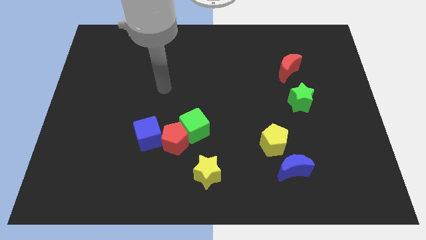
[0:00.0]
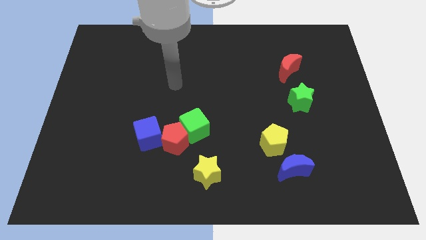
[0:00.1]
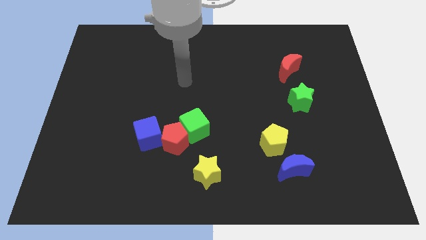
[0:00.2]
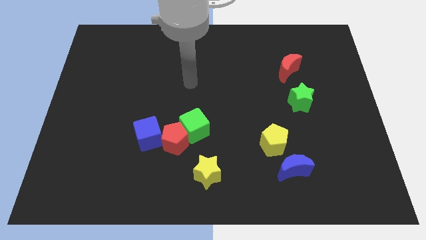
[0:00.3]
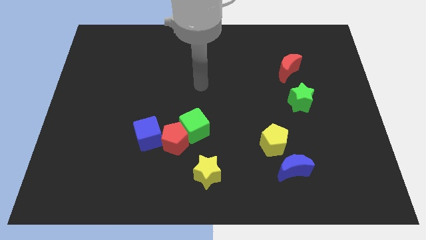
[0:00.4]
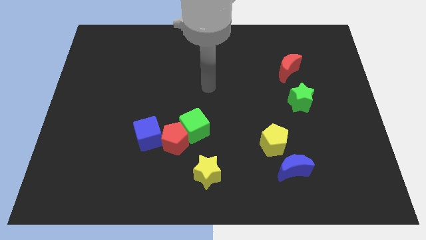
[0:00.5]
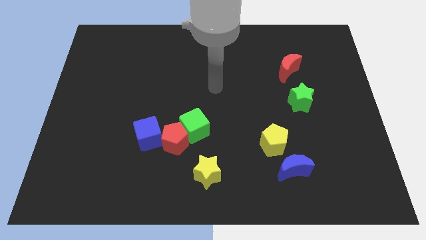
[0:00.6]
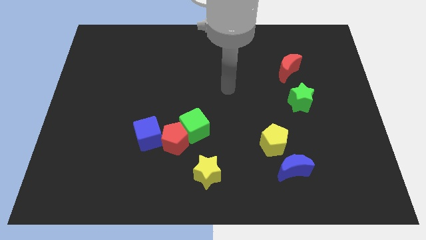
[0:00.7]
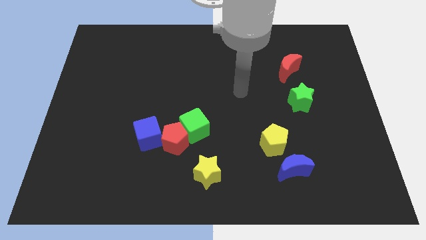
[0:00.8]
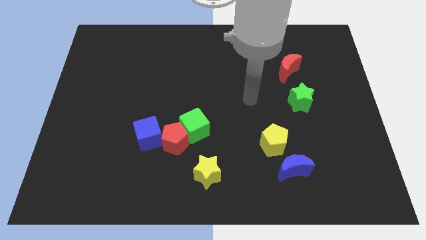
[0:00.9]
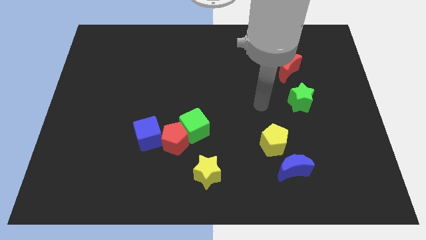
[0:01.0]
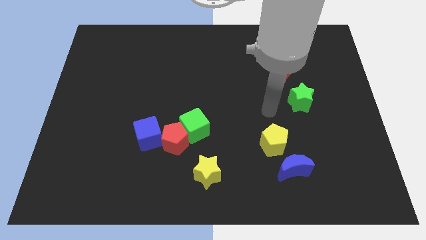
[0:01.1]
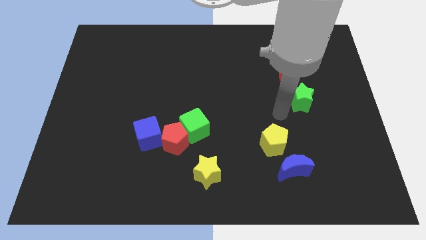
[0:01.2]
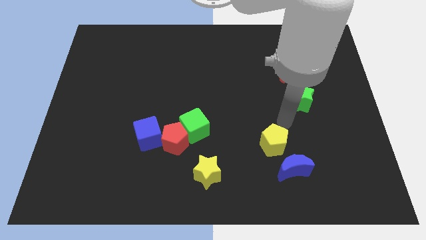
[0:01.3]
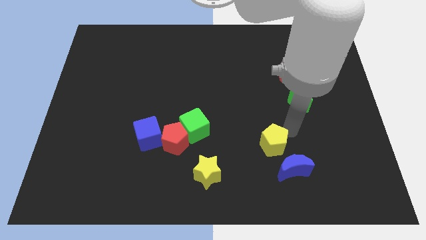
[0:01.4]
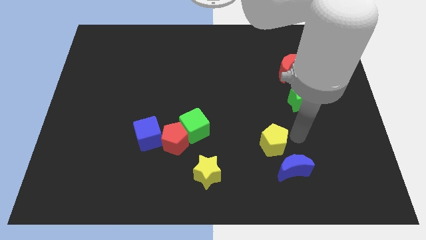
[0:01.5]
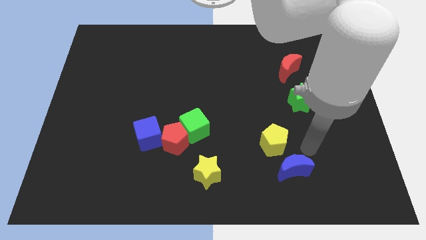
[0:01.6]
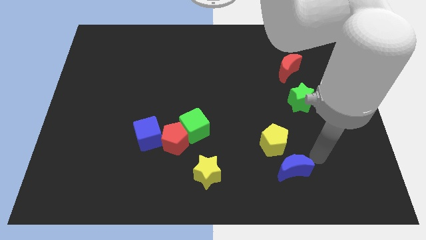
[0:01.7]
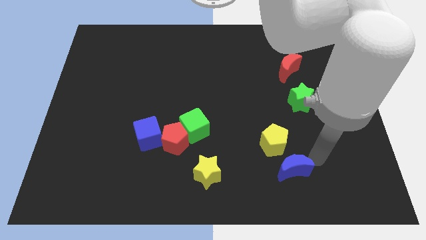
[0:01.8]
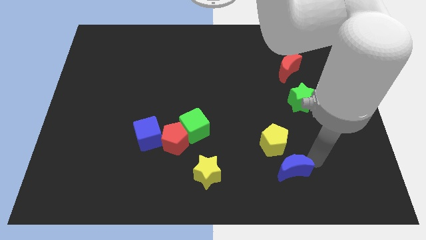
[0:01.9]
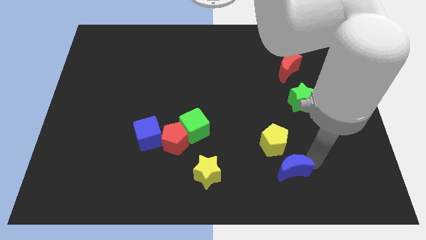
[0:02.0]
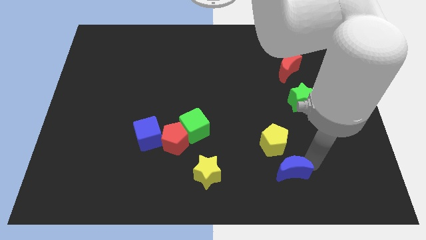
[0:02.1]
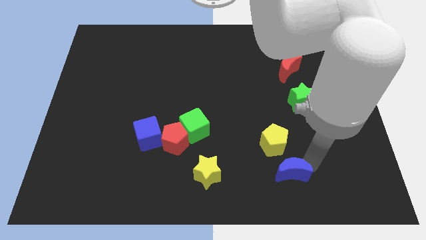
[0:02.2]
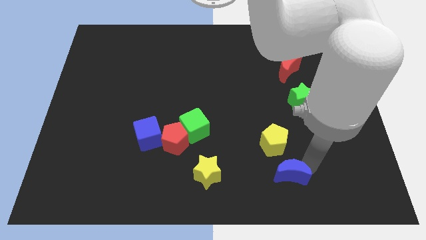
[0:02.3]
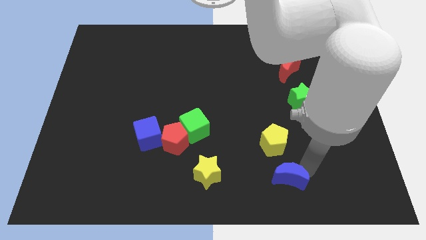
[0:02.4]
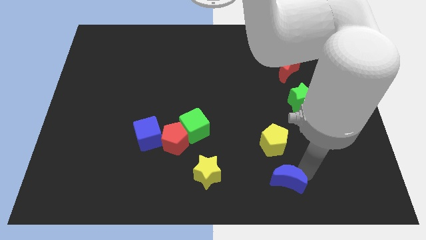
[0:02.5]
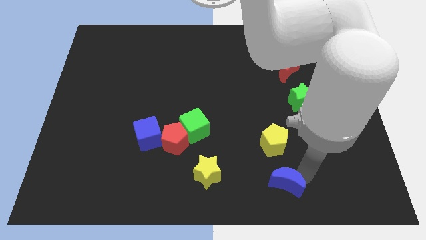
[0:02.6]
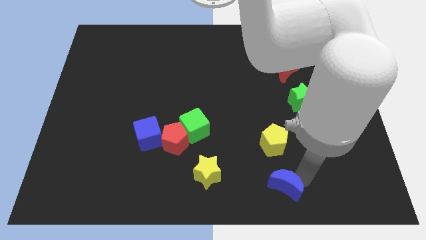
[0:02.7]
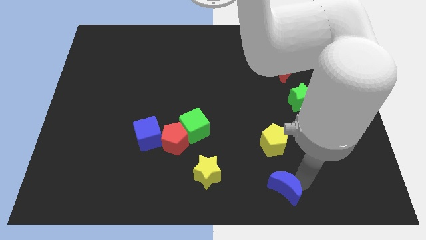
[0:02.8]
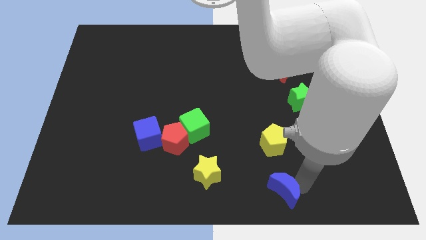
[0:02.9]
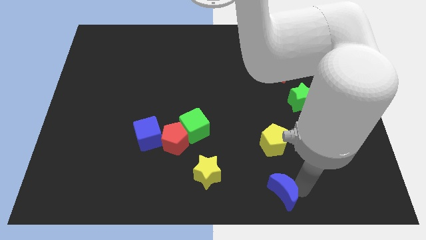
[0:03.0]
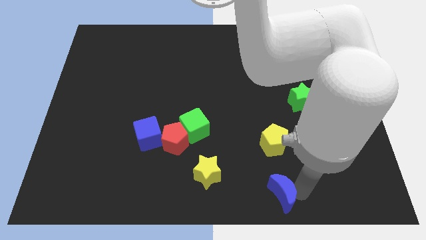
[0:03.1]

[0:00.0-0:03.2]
push the blue moon to the bottom

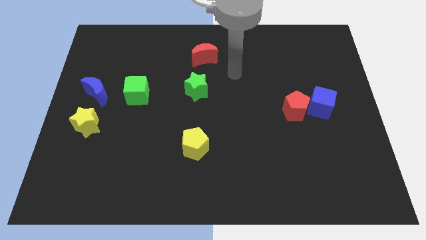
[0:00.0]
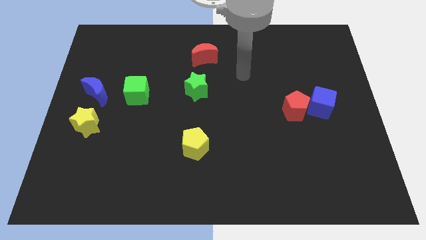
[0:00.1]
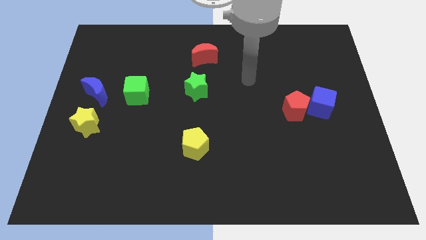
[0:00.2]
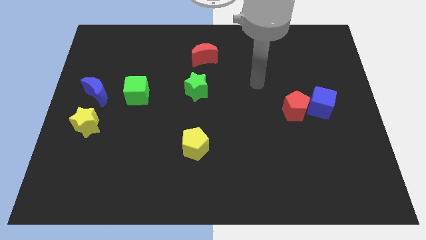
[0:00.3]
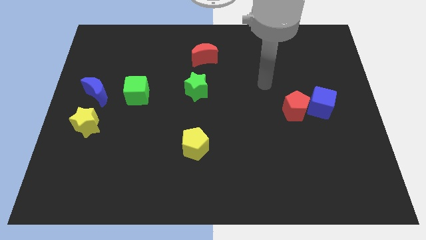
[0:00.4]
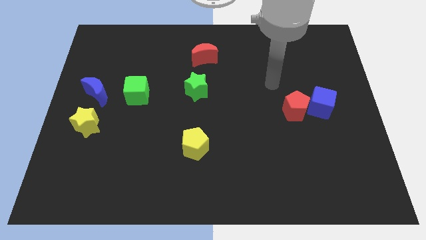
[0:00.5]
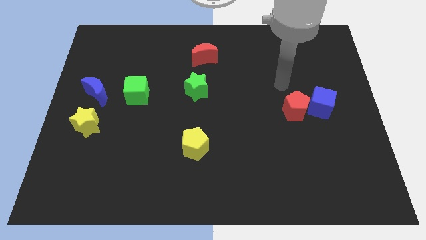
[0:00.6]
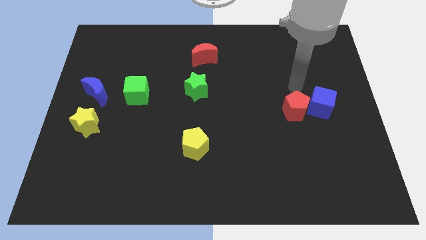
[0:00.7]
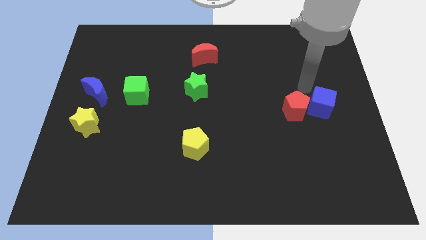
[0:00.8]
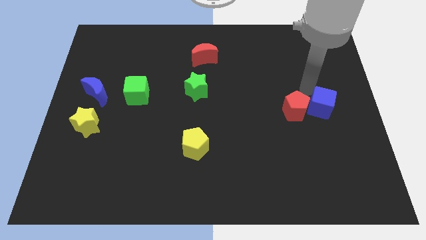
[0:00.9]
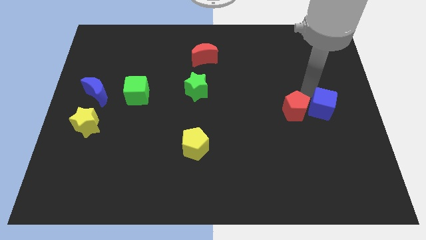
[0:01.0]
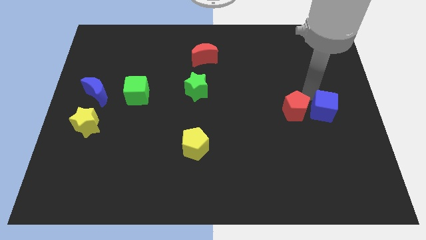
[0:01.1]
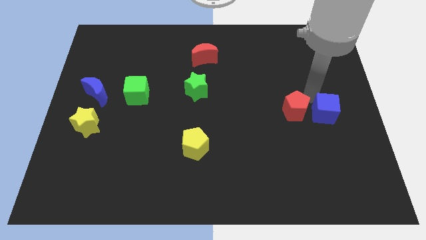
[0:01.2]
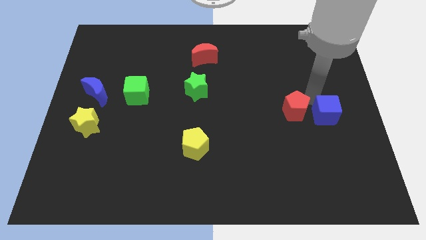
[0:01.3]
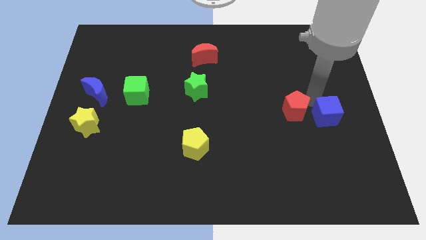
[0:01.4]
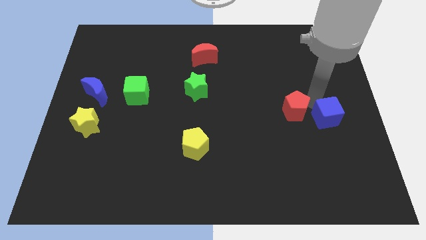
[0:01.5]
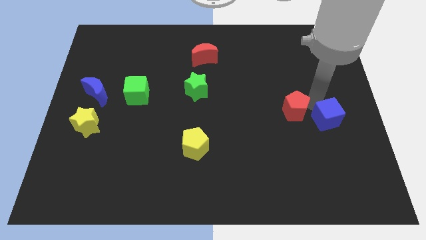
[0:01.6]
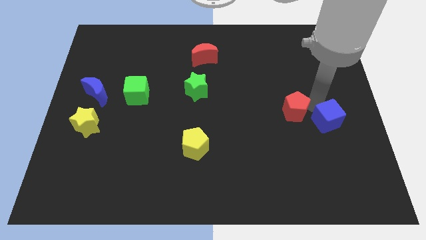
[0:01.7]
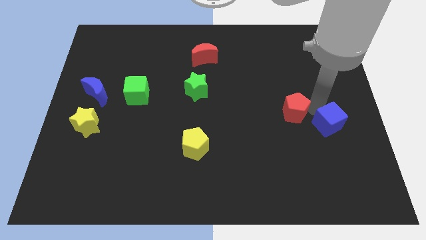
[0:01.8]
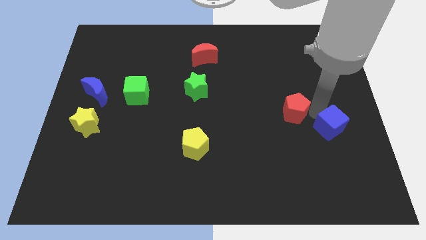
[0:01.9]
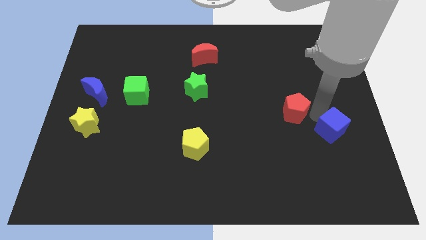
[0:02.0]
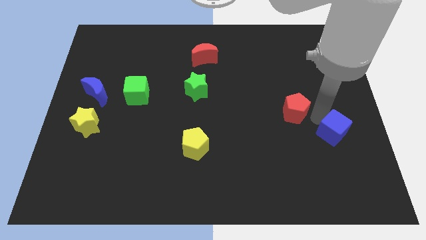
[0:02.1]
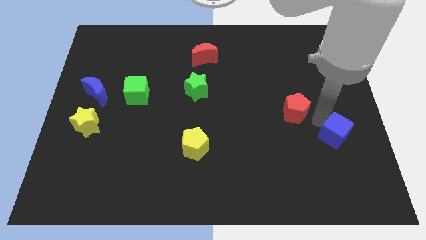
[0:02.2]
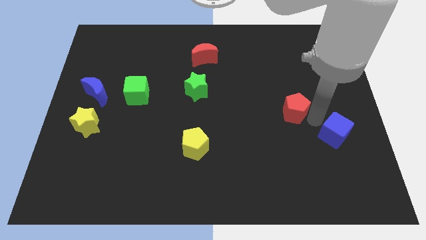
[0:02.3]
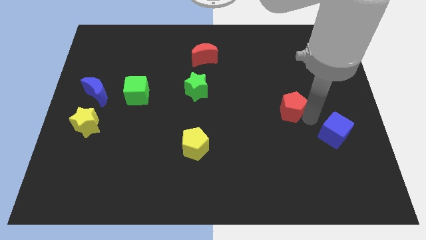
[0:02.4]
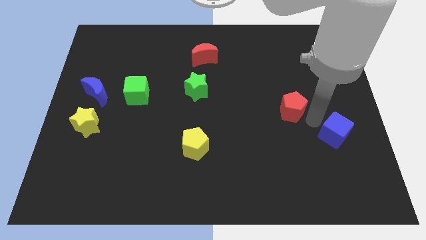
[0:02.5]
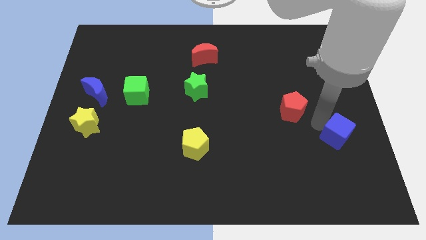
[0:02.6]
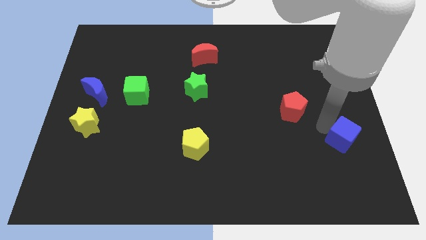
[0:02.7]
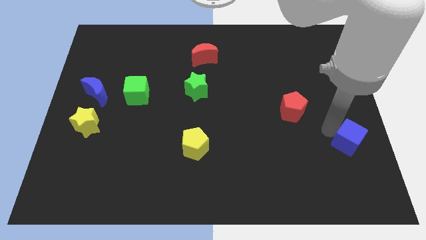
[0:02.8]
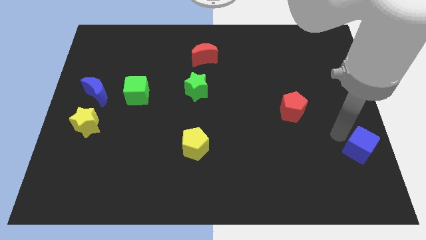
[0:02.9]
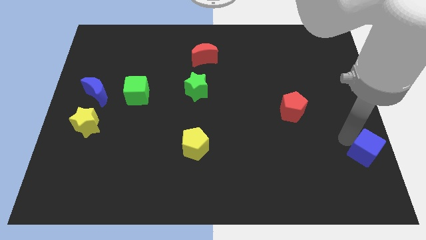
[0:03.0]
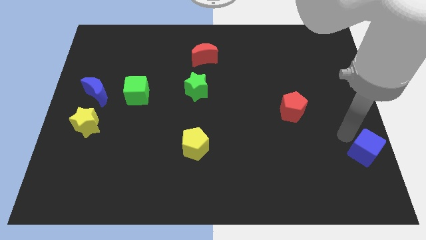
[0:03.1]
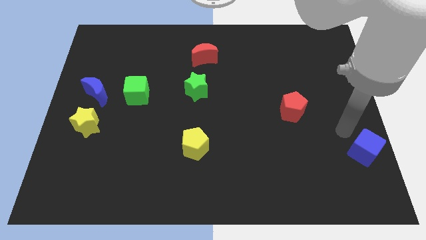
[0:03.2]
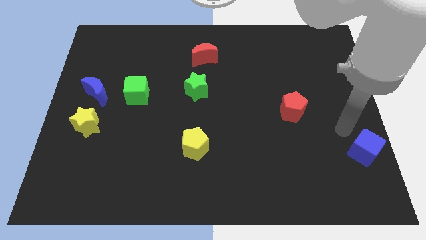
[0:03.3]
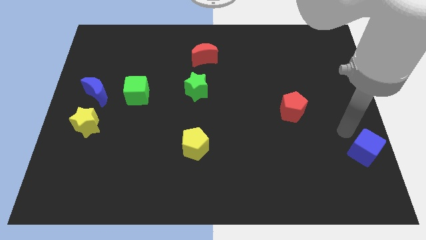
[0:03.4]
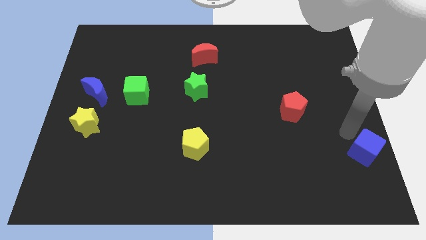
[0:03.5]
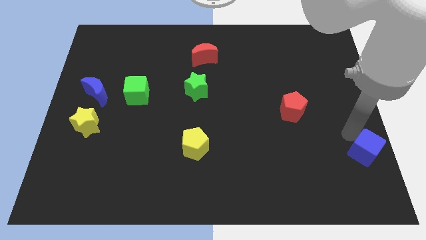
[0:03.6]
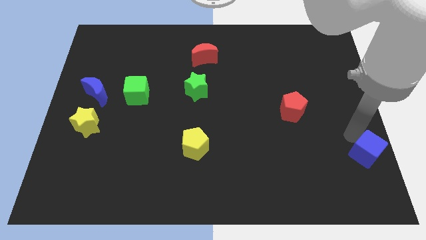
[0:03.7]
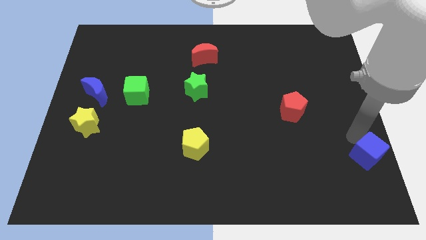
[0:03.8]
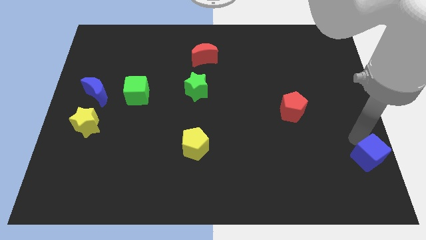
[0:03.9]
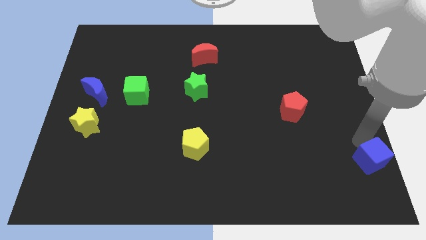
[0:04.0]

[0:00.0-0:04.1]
push the blue cube to the lower right corner
